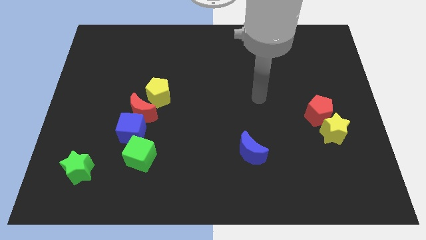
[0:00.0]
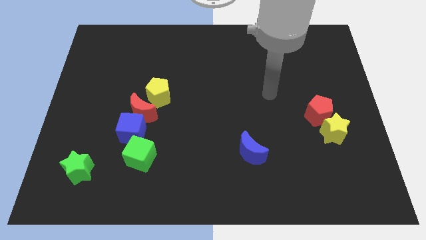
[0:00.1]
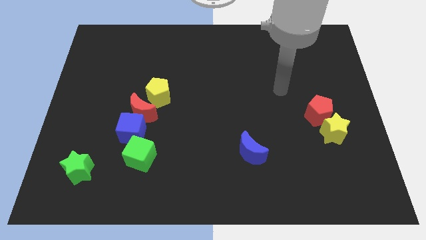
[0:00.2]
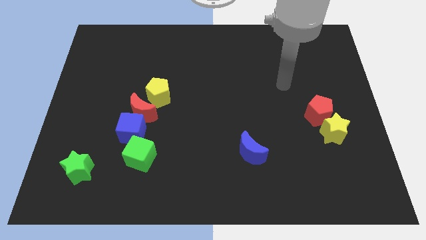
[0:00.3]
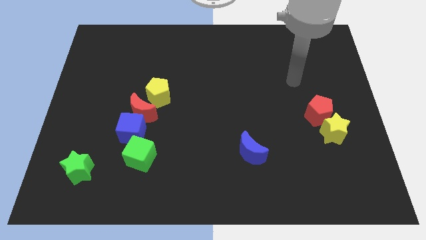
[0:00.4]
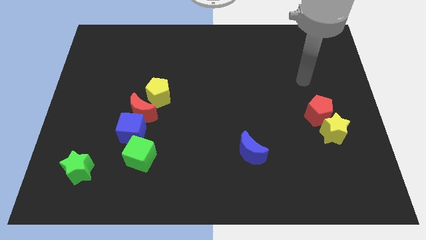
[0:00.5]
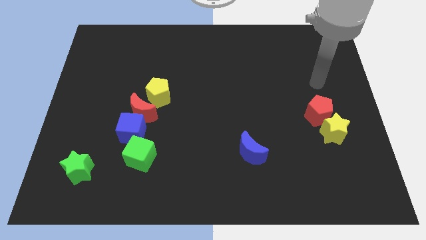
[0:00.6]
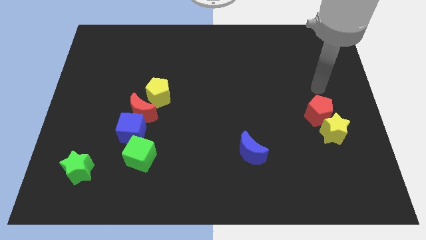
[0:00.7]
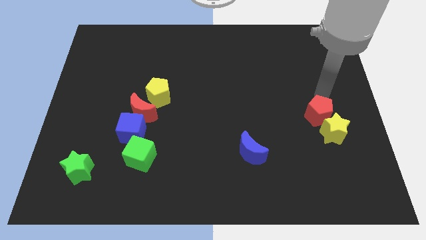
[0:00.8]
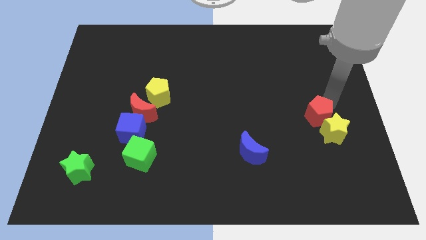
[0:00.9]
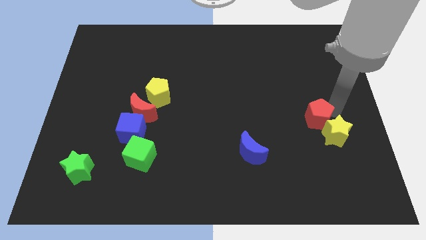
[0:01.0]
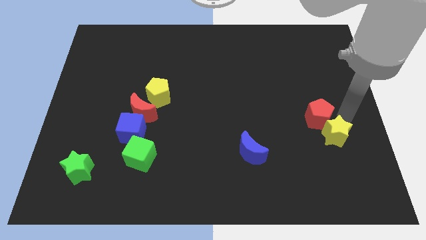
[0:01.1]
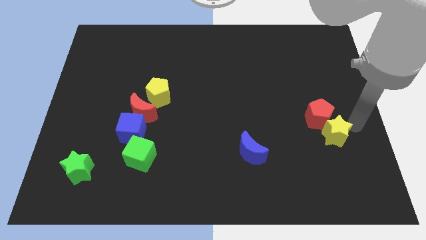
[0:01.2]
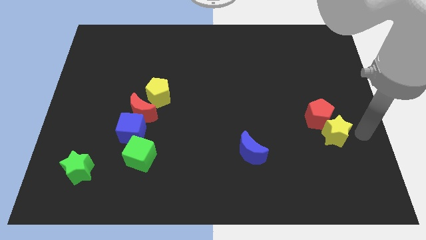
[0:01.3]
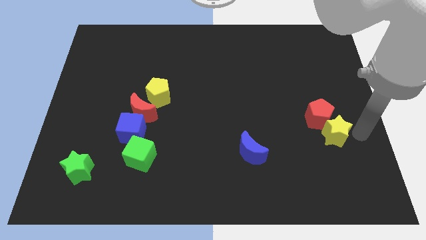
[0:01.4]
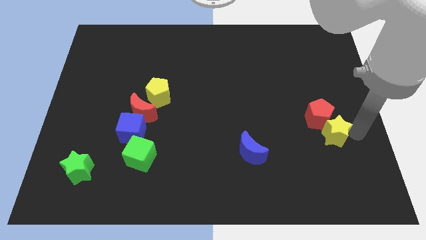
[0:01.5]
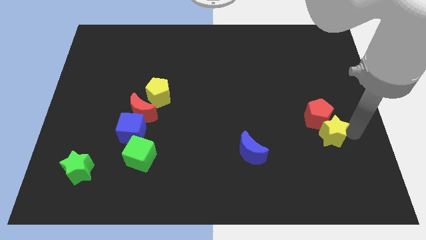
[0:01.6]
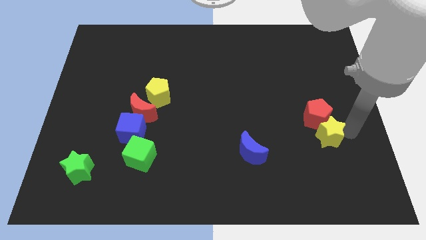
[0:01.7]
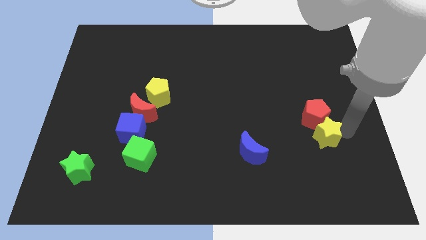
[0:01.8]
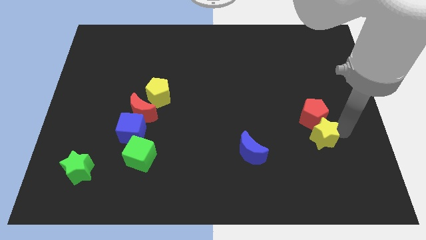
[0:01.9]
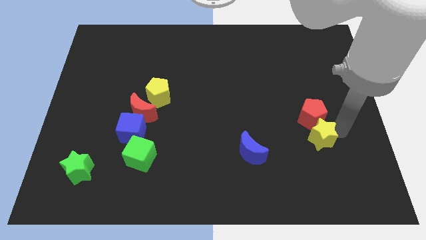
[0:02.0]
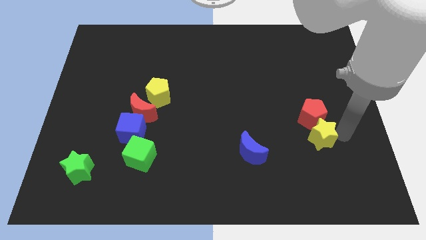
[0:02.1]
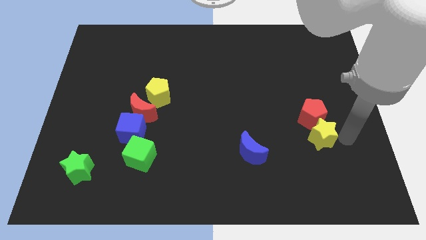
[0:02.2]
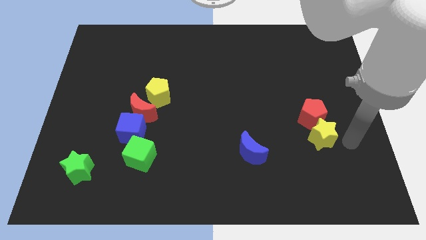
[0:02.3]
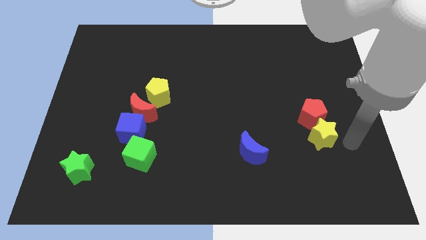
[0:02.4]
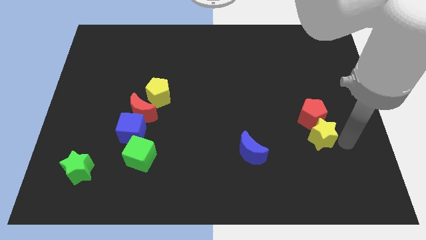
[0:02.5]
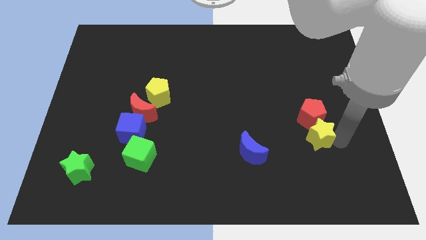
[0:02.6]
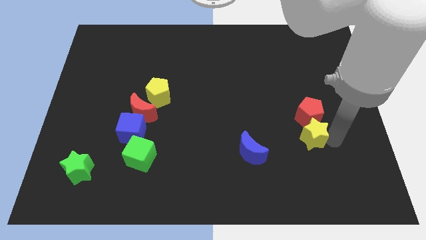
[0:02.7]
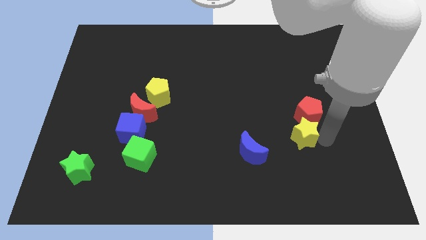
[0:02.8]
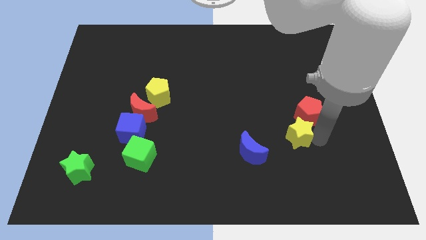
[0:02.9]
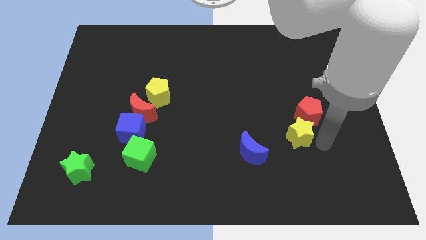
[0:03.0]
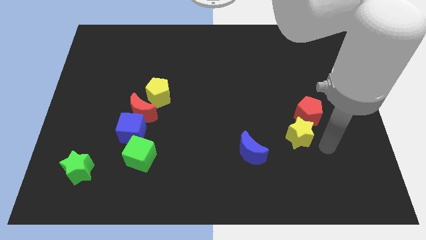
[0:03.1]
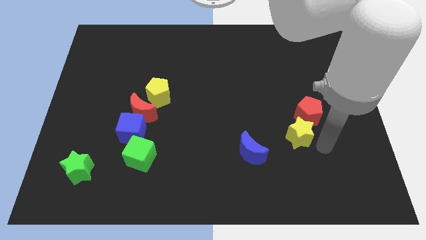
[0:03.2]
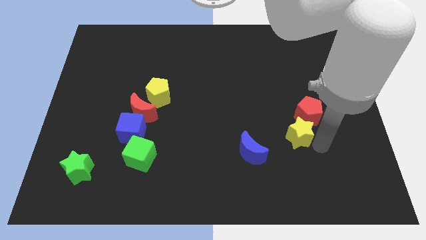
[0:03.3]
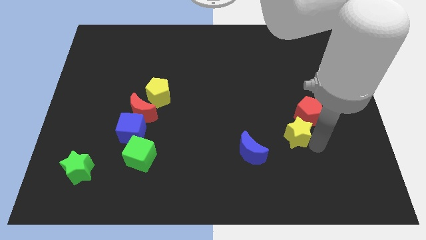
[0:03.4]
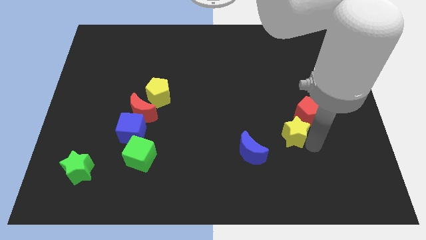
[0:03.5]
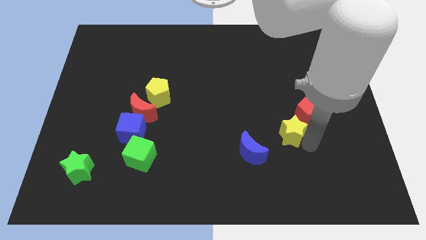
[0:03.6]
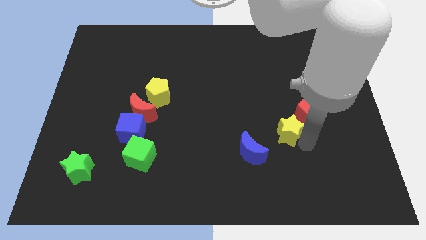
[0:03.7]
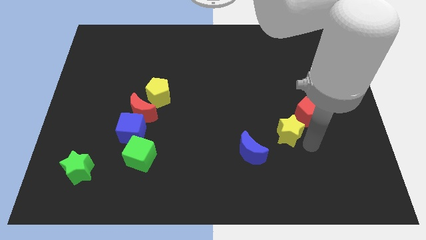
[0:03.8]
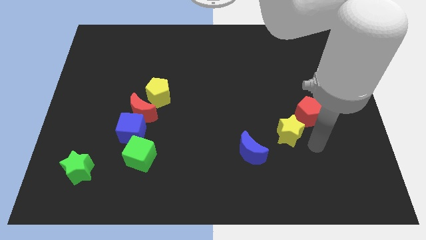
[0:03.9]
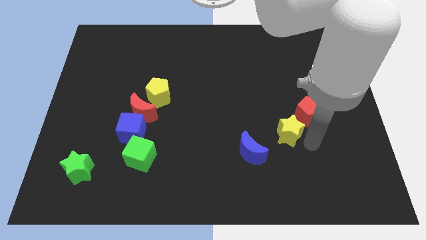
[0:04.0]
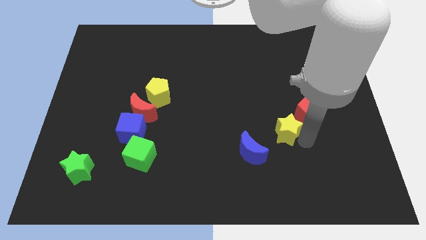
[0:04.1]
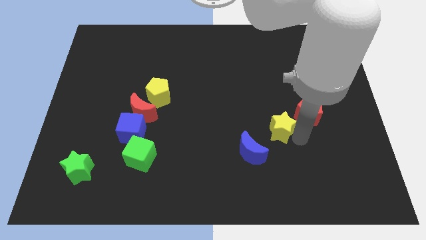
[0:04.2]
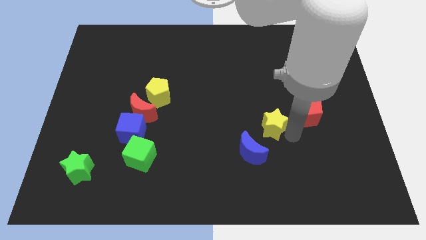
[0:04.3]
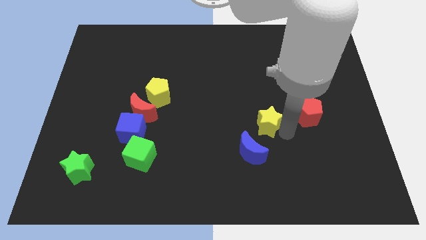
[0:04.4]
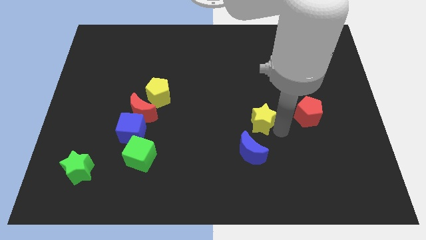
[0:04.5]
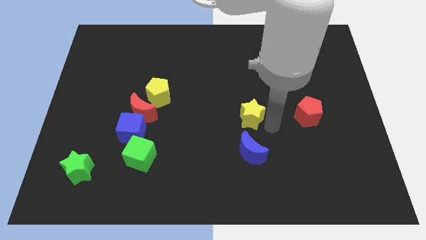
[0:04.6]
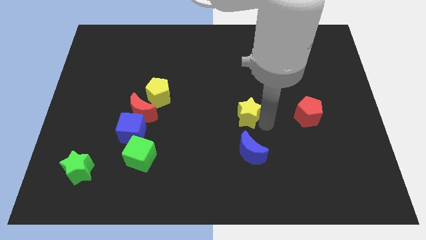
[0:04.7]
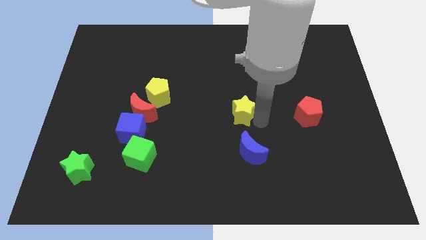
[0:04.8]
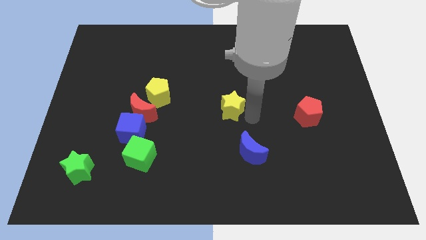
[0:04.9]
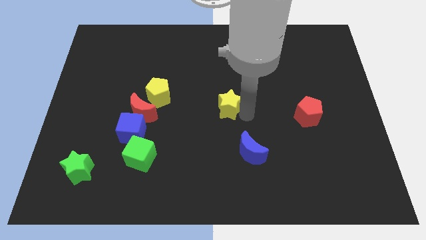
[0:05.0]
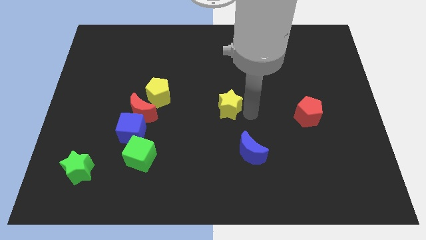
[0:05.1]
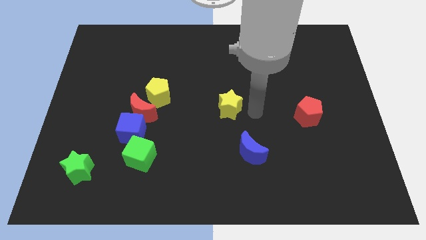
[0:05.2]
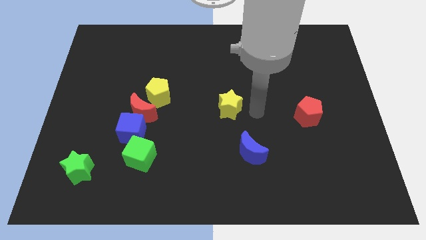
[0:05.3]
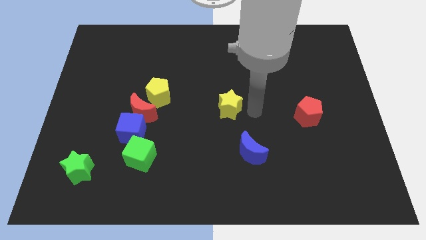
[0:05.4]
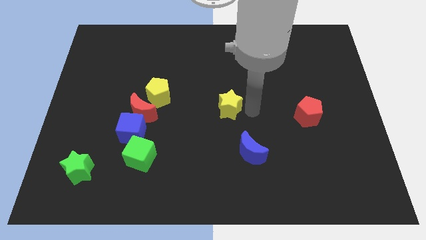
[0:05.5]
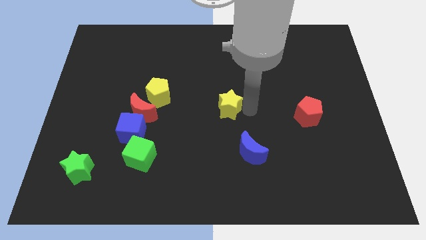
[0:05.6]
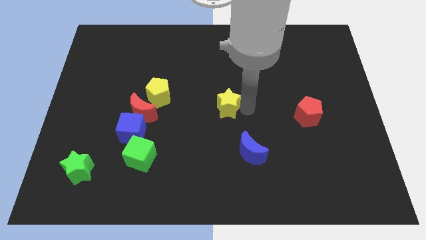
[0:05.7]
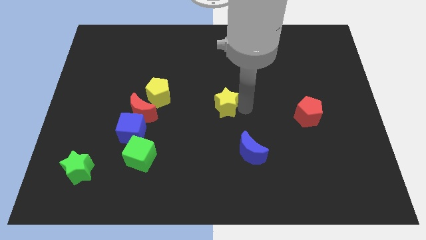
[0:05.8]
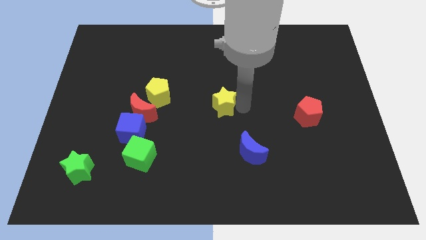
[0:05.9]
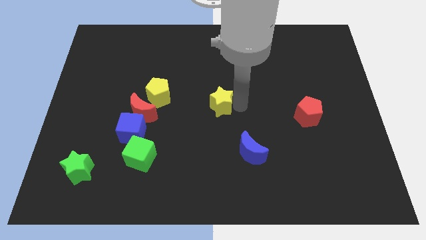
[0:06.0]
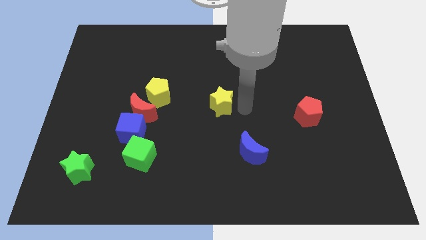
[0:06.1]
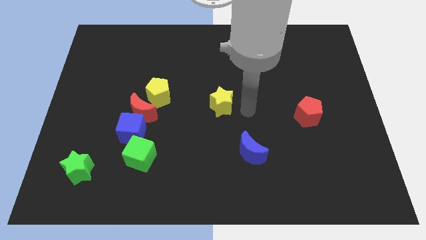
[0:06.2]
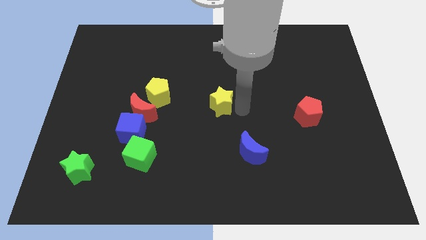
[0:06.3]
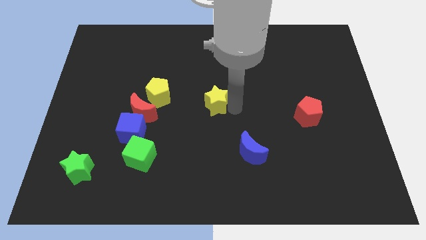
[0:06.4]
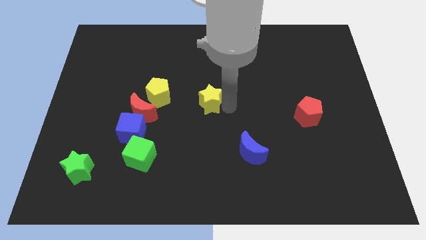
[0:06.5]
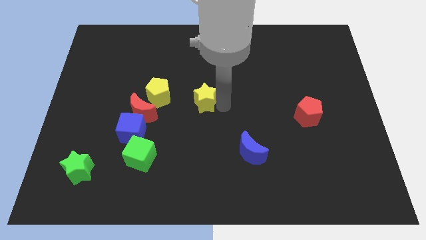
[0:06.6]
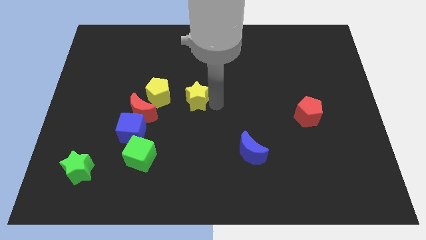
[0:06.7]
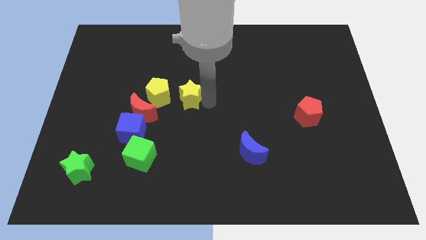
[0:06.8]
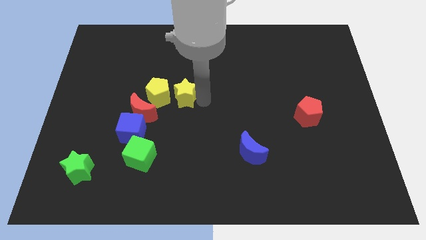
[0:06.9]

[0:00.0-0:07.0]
put the yellow star close to the yellow pentagon

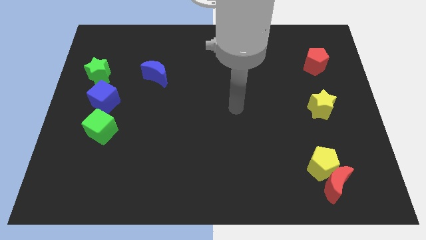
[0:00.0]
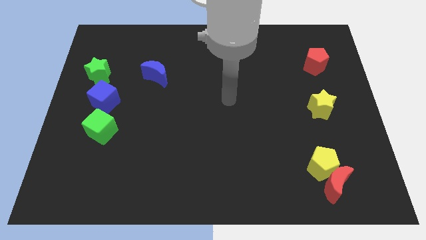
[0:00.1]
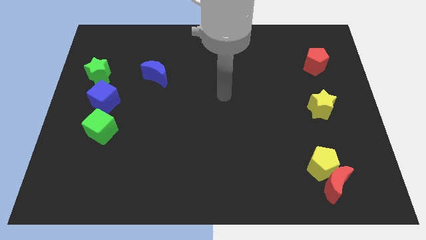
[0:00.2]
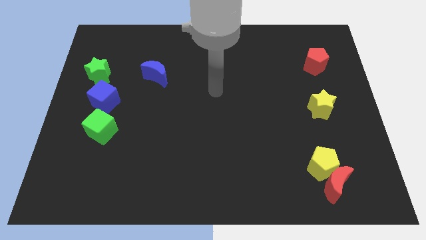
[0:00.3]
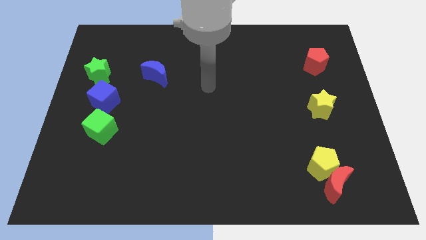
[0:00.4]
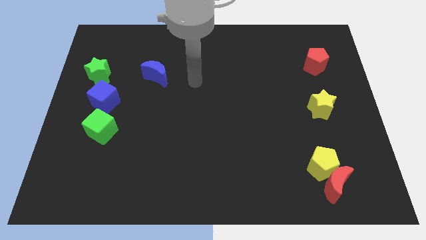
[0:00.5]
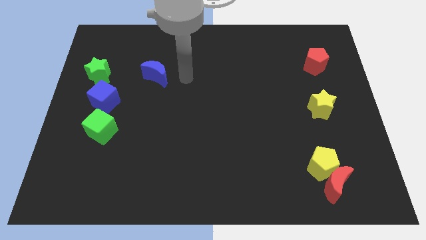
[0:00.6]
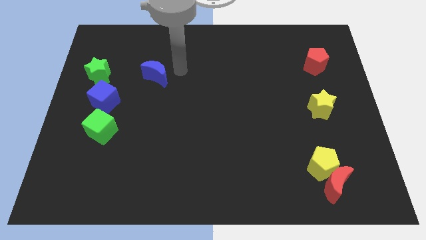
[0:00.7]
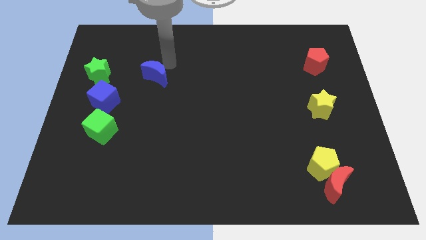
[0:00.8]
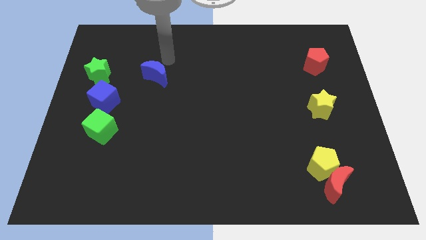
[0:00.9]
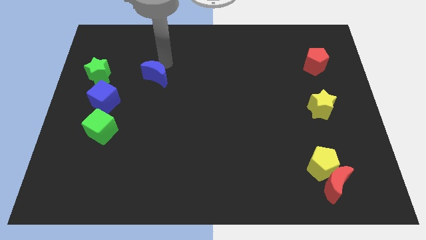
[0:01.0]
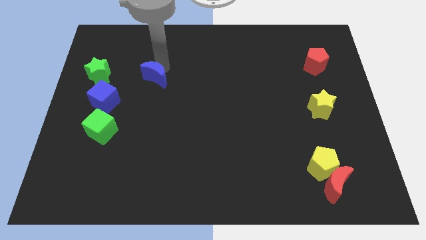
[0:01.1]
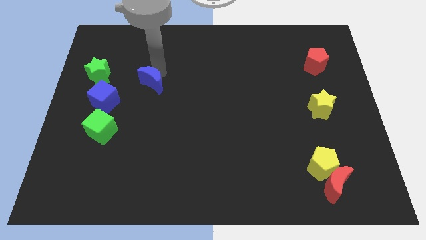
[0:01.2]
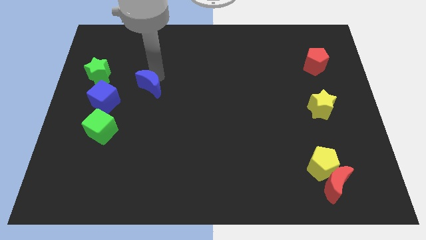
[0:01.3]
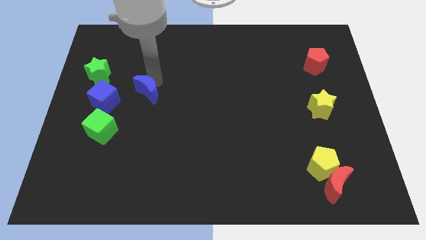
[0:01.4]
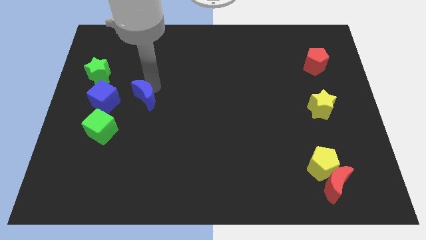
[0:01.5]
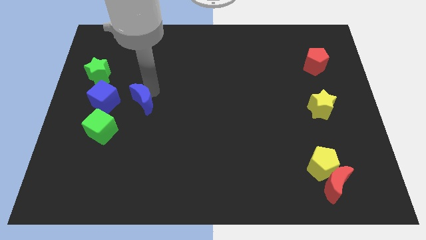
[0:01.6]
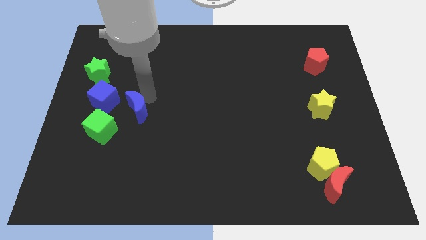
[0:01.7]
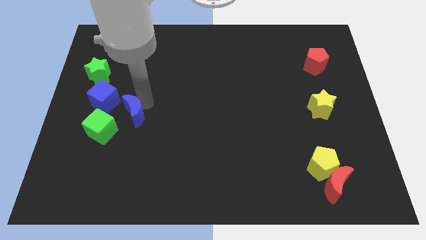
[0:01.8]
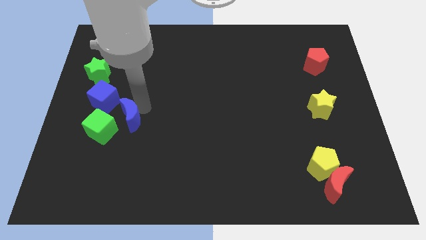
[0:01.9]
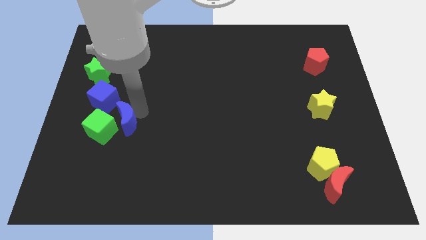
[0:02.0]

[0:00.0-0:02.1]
slide the blue moon to the green cube
